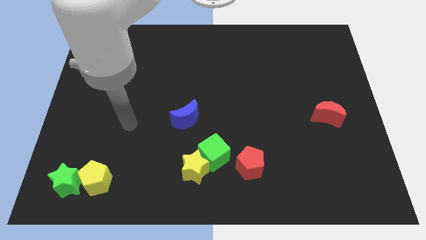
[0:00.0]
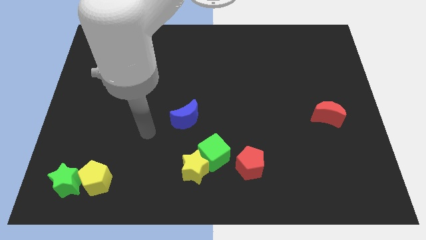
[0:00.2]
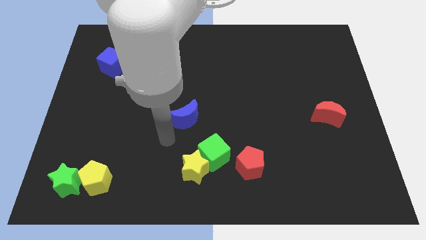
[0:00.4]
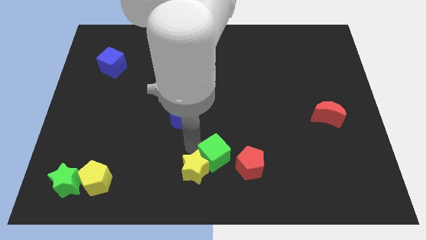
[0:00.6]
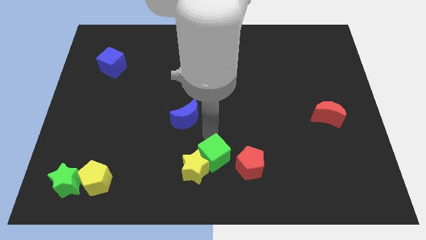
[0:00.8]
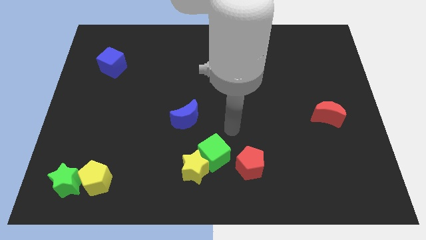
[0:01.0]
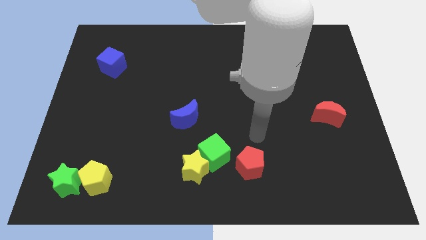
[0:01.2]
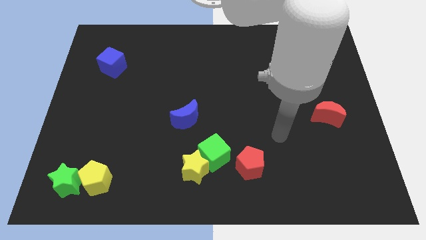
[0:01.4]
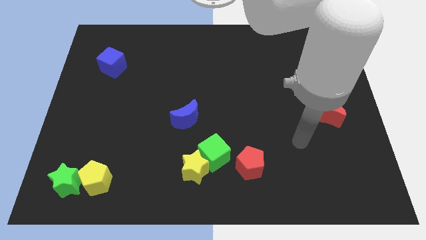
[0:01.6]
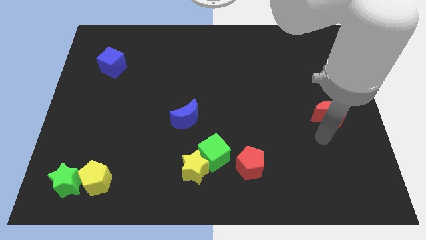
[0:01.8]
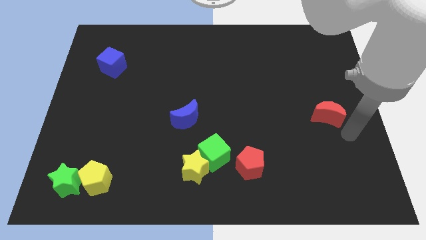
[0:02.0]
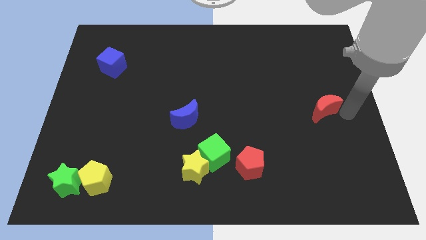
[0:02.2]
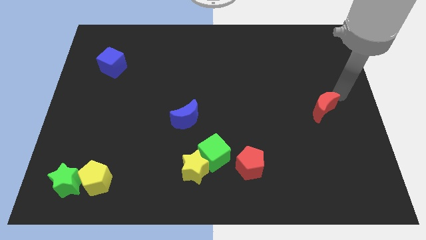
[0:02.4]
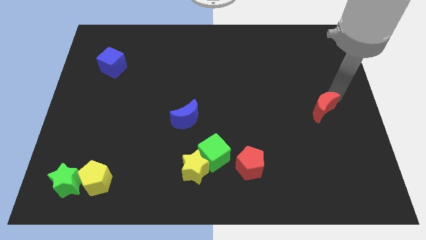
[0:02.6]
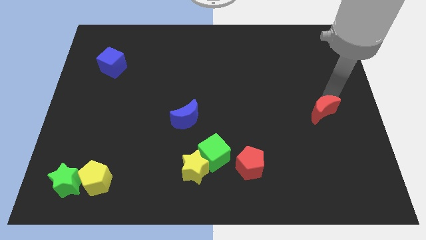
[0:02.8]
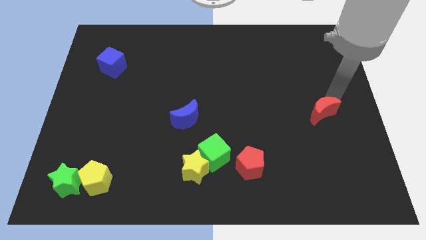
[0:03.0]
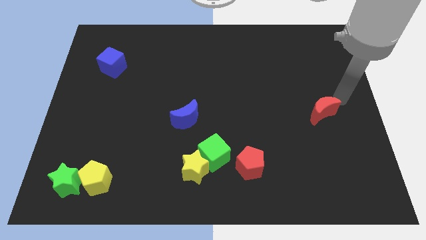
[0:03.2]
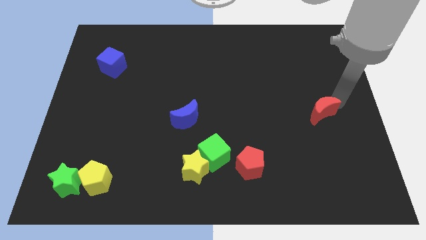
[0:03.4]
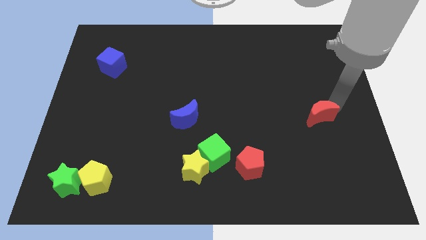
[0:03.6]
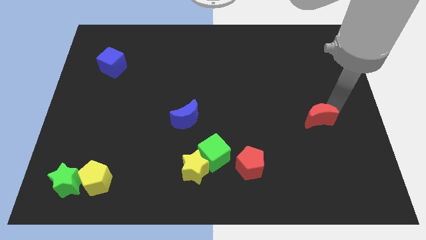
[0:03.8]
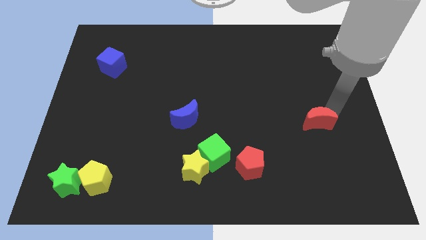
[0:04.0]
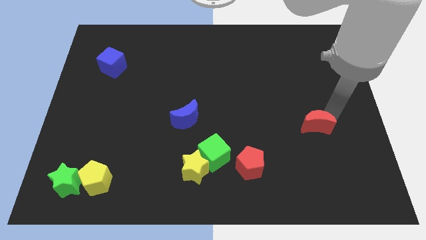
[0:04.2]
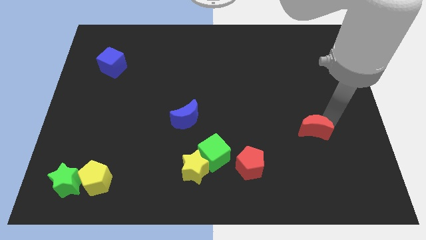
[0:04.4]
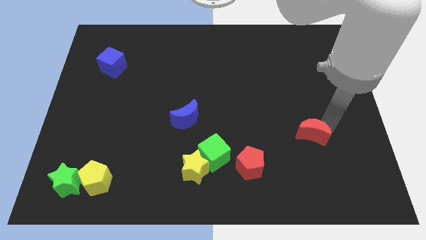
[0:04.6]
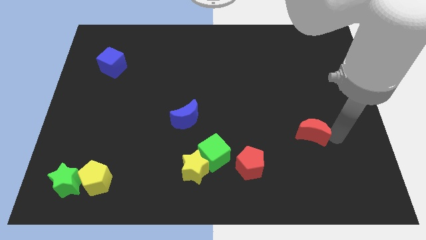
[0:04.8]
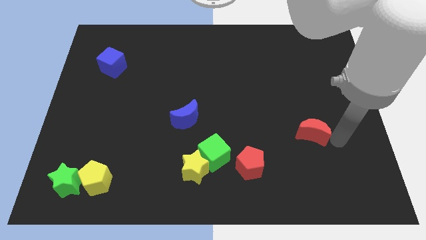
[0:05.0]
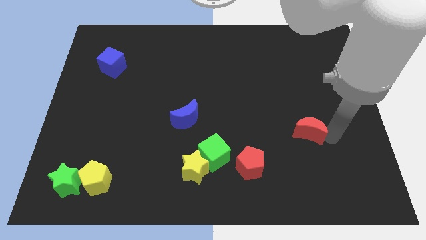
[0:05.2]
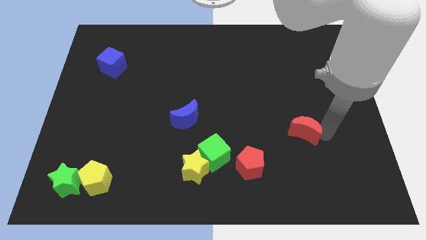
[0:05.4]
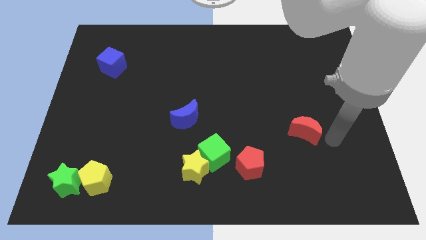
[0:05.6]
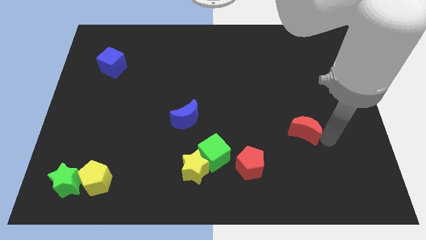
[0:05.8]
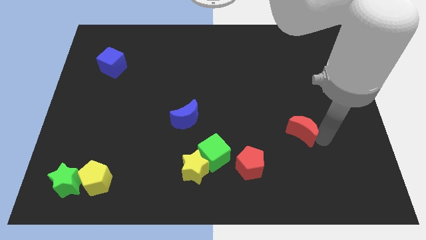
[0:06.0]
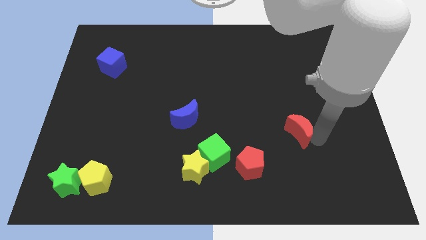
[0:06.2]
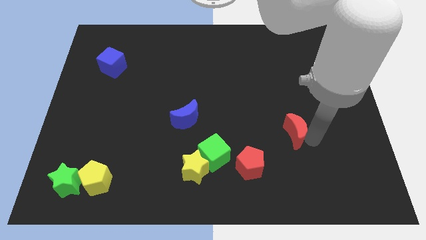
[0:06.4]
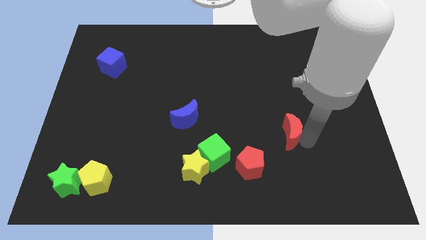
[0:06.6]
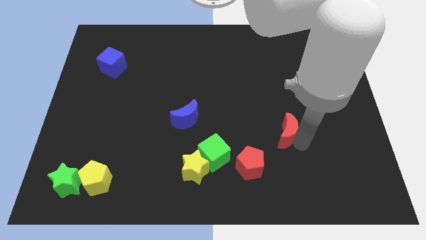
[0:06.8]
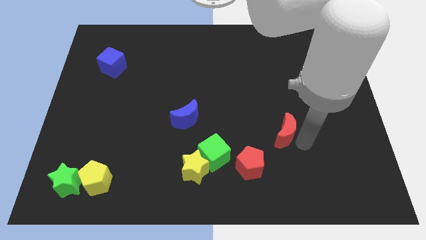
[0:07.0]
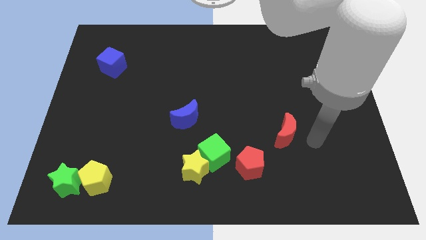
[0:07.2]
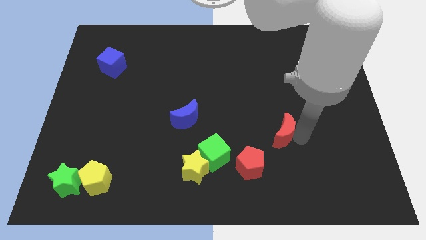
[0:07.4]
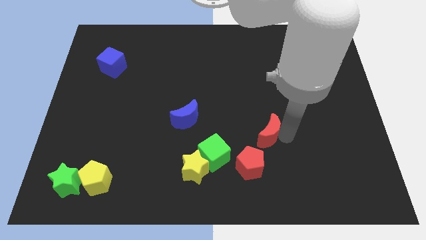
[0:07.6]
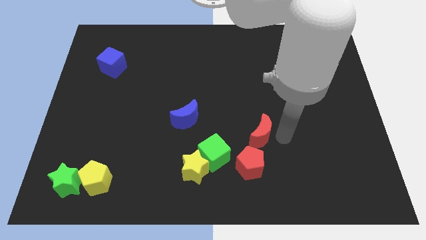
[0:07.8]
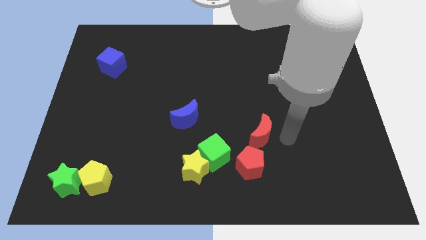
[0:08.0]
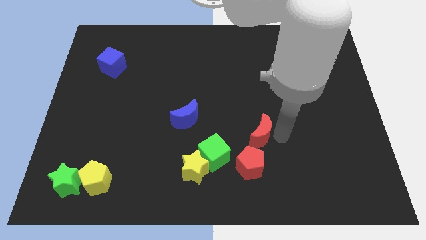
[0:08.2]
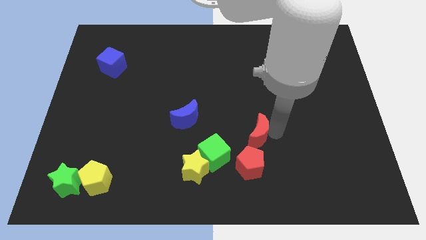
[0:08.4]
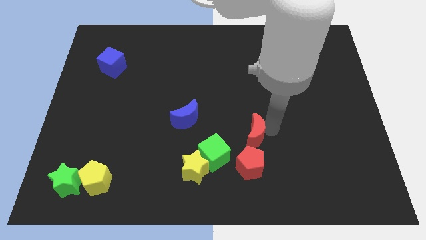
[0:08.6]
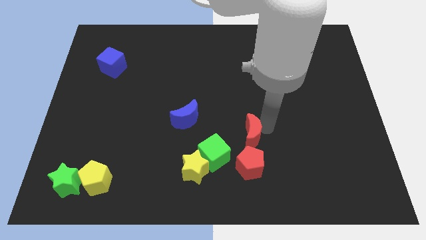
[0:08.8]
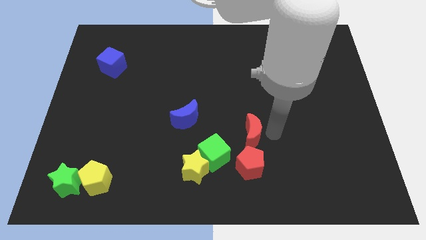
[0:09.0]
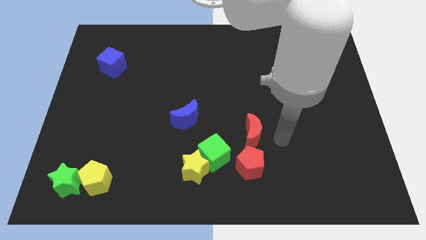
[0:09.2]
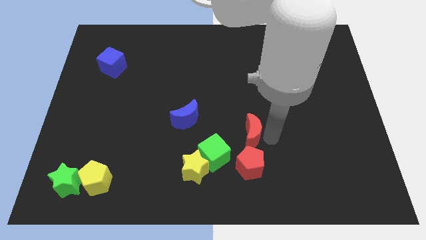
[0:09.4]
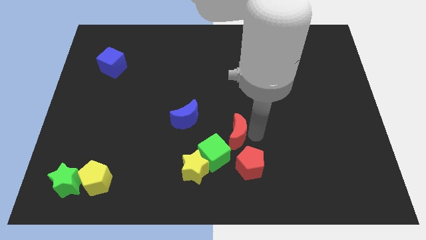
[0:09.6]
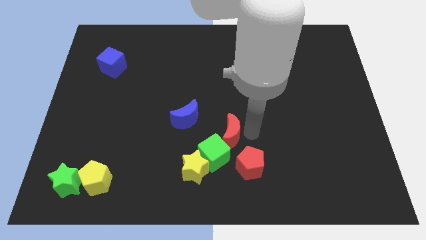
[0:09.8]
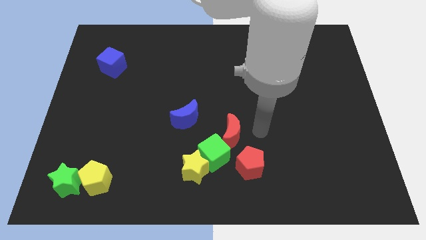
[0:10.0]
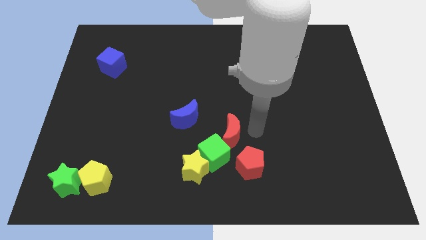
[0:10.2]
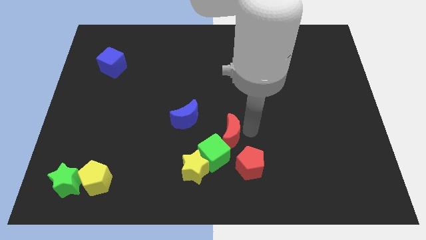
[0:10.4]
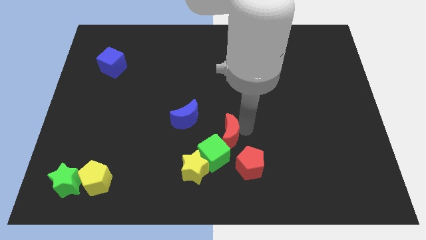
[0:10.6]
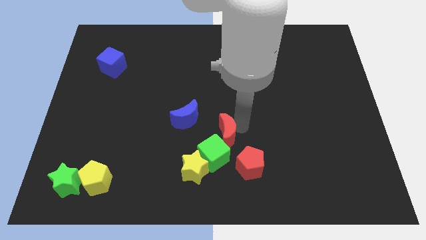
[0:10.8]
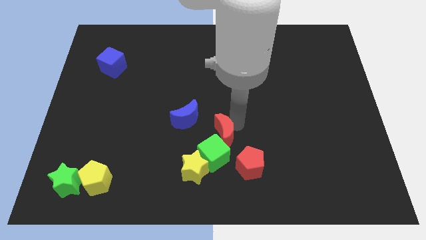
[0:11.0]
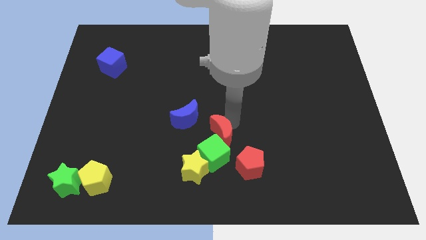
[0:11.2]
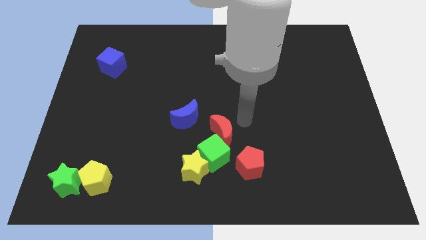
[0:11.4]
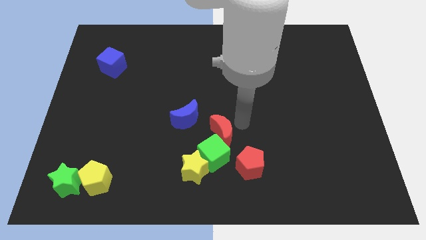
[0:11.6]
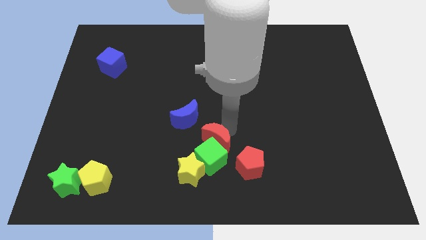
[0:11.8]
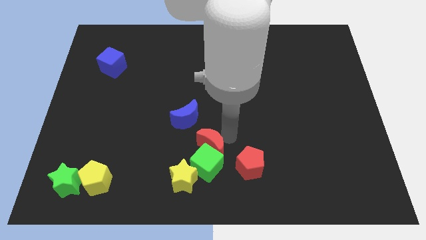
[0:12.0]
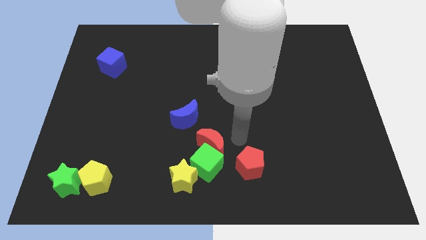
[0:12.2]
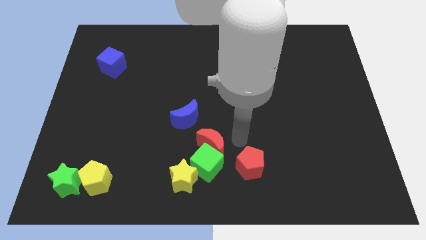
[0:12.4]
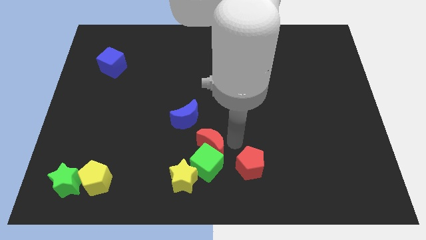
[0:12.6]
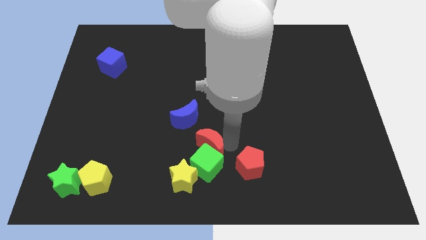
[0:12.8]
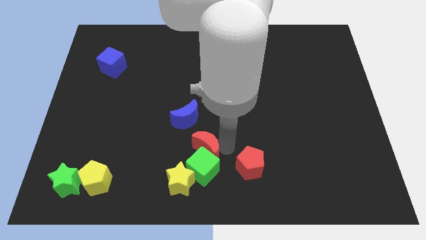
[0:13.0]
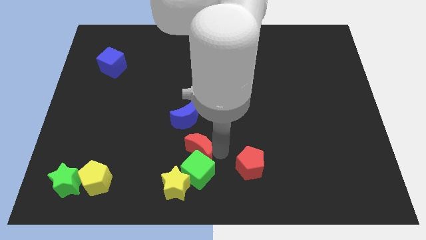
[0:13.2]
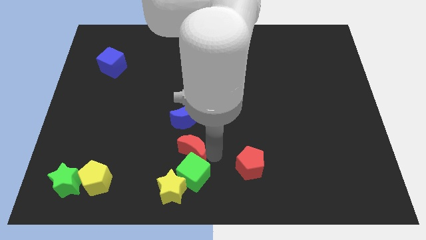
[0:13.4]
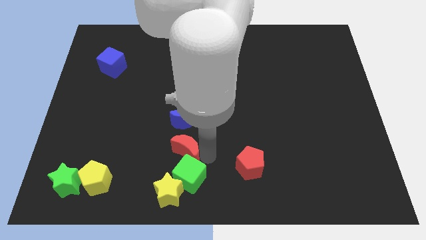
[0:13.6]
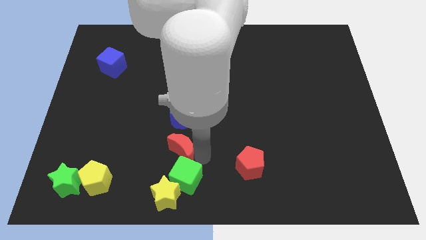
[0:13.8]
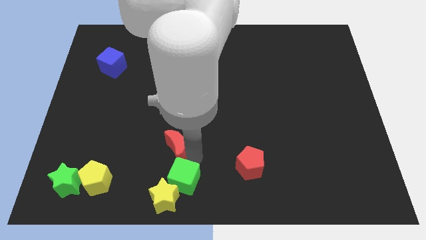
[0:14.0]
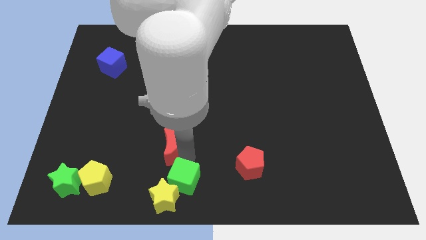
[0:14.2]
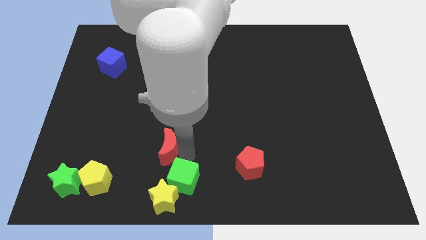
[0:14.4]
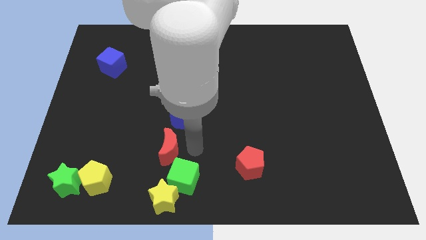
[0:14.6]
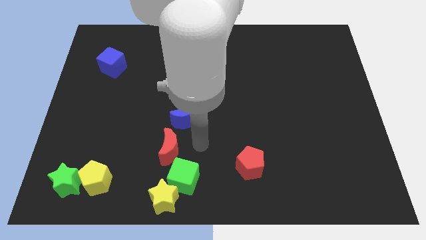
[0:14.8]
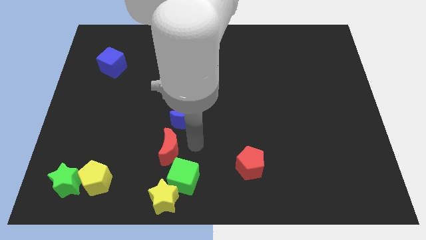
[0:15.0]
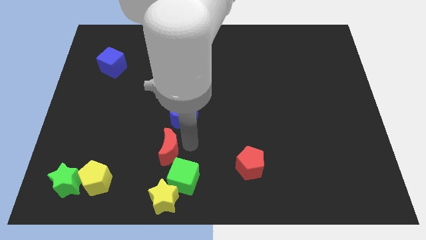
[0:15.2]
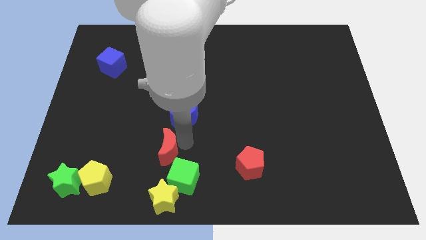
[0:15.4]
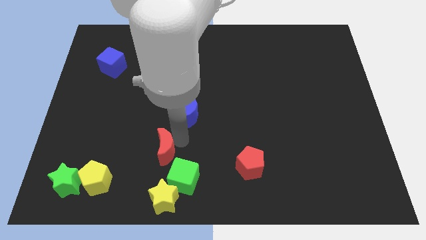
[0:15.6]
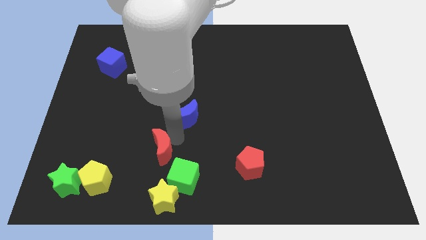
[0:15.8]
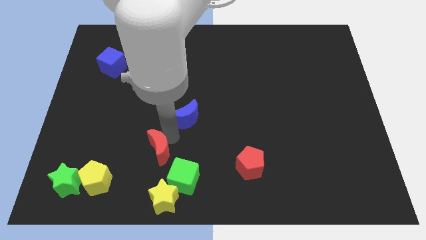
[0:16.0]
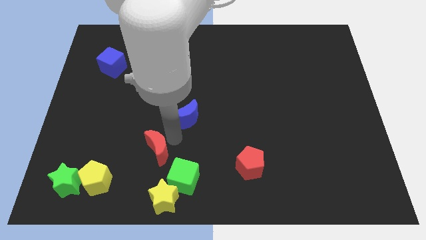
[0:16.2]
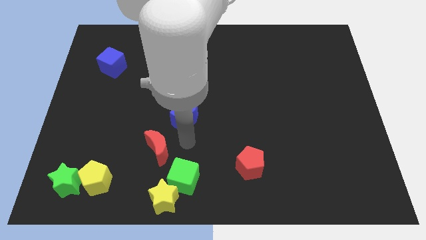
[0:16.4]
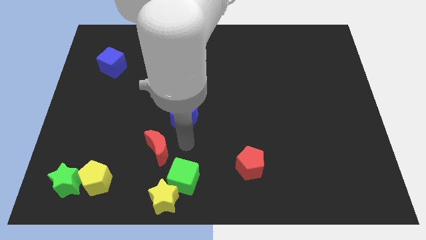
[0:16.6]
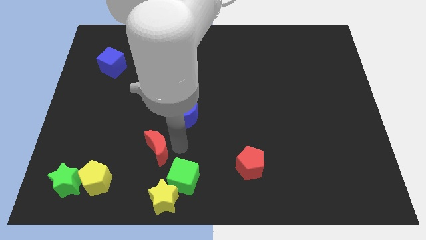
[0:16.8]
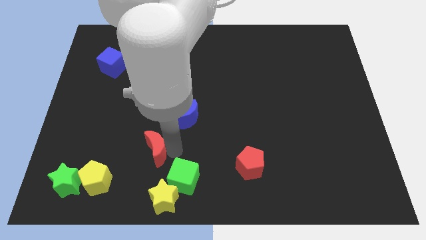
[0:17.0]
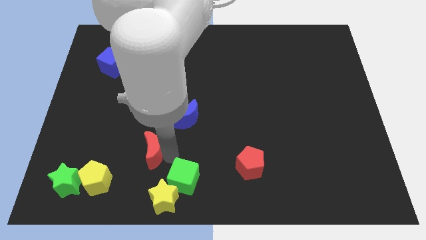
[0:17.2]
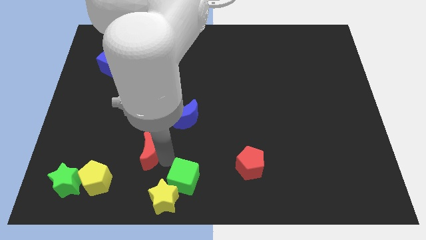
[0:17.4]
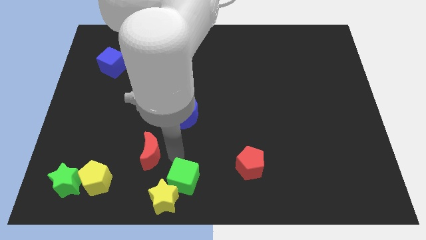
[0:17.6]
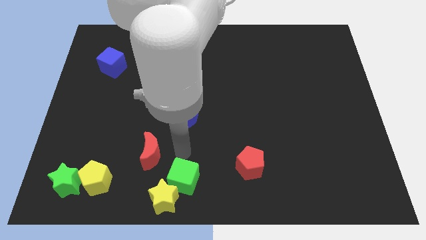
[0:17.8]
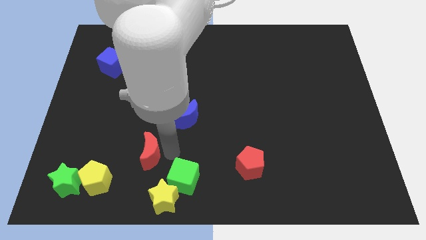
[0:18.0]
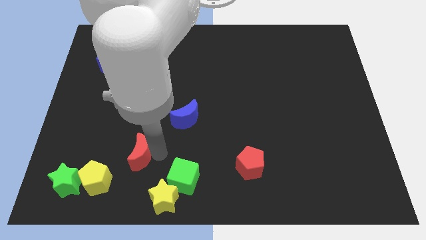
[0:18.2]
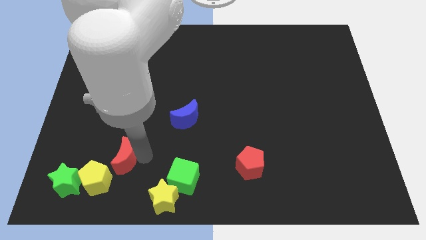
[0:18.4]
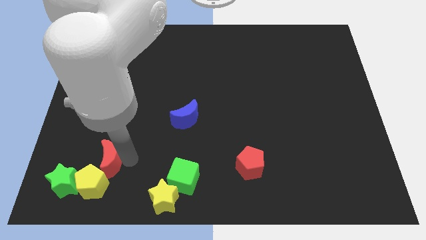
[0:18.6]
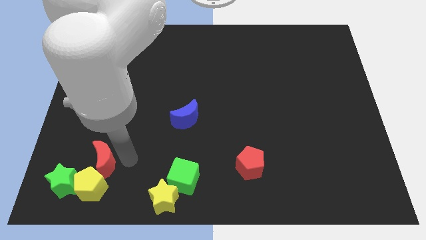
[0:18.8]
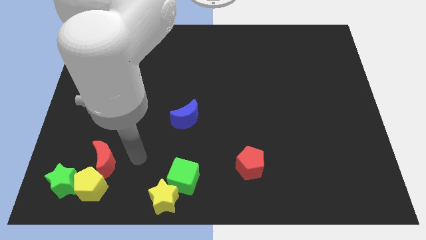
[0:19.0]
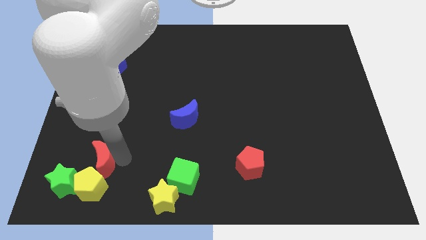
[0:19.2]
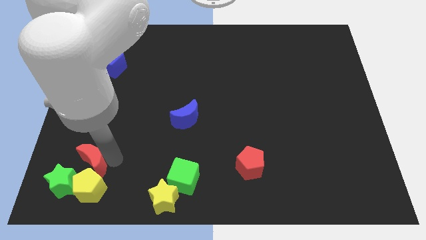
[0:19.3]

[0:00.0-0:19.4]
put the red moon to the top left side of the yellow pentagon
